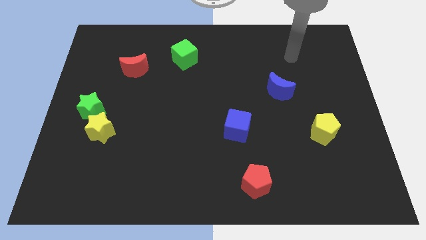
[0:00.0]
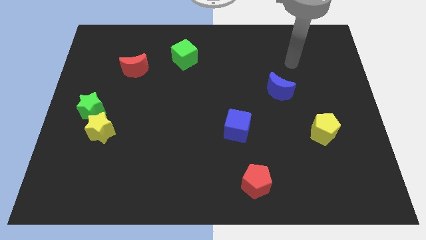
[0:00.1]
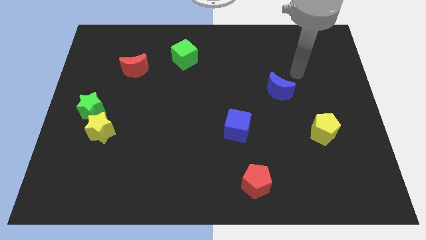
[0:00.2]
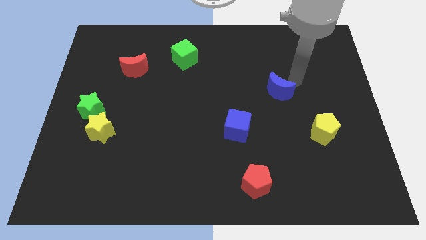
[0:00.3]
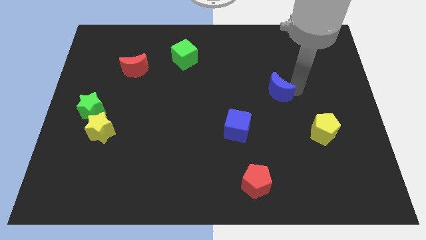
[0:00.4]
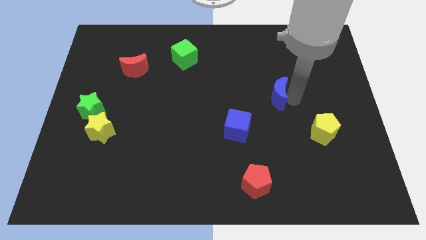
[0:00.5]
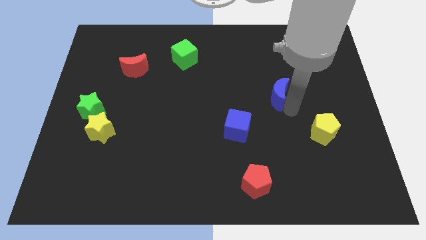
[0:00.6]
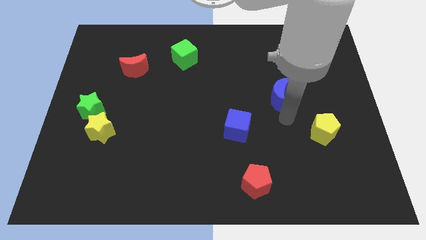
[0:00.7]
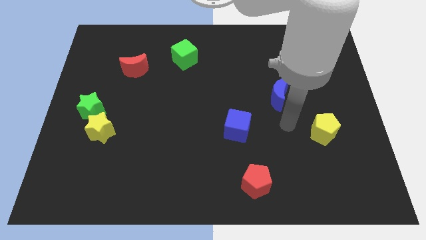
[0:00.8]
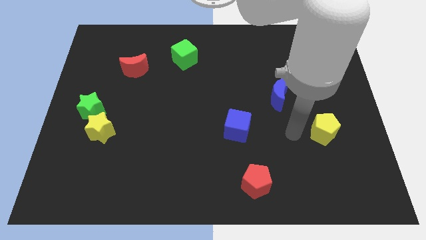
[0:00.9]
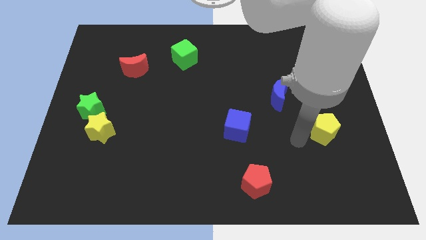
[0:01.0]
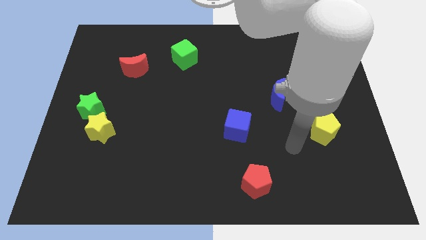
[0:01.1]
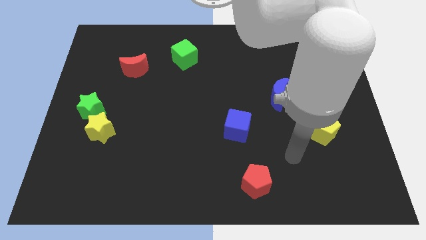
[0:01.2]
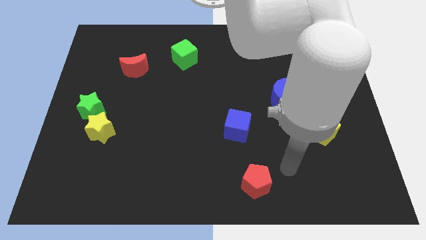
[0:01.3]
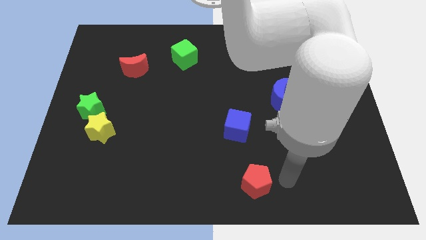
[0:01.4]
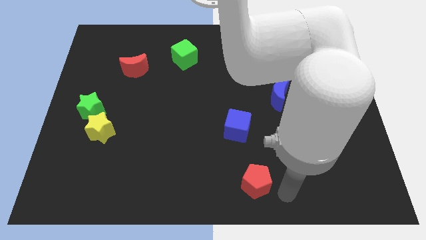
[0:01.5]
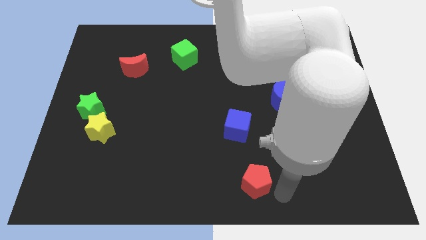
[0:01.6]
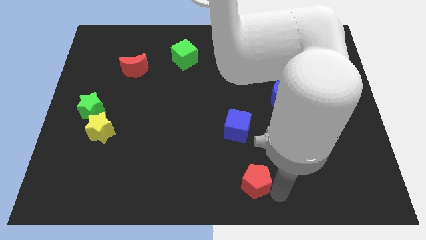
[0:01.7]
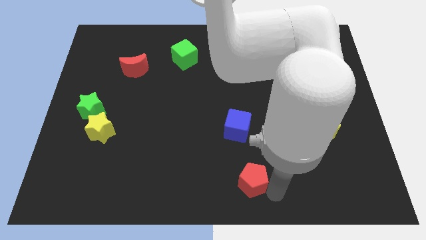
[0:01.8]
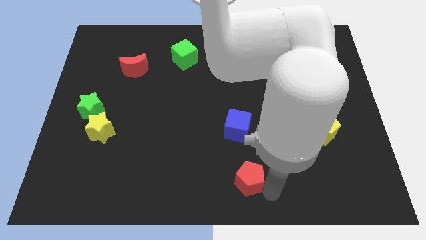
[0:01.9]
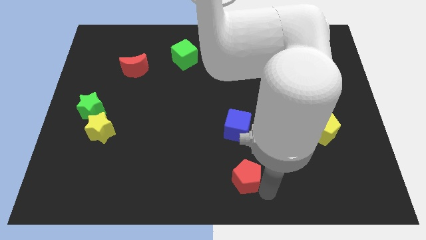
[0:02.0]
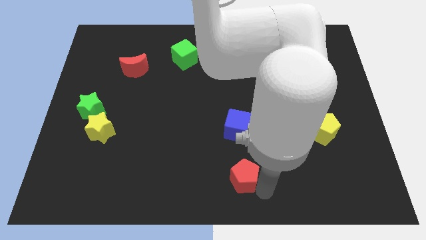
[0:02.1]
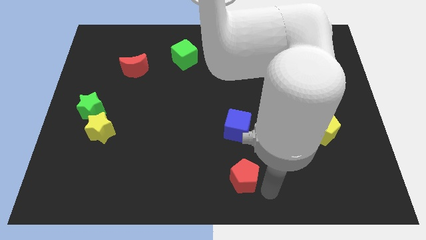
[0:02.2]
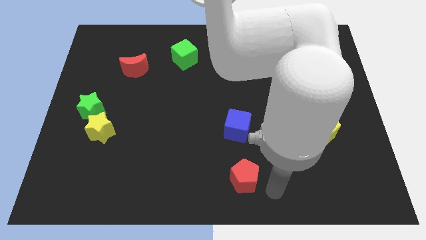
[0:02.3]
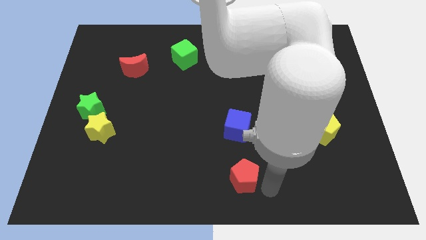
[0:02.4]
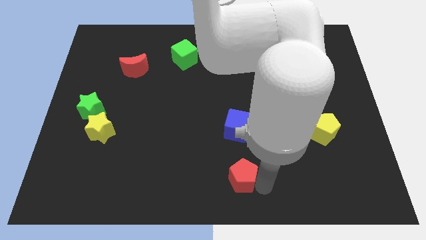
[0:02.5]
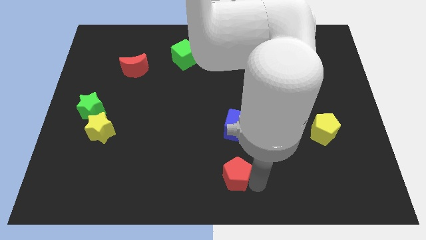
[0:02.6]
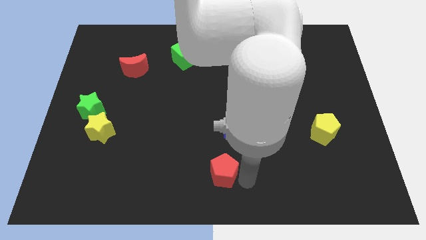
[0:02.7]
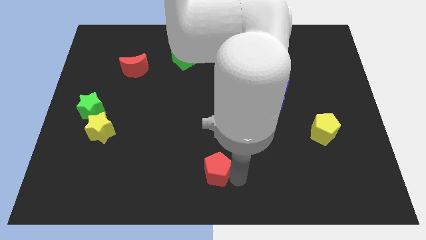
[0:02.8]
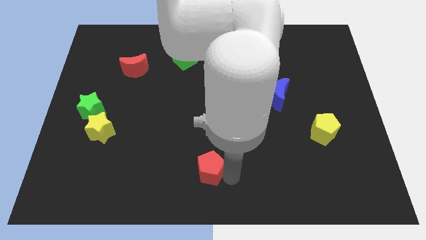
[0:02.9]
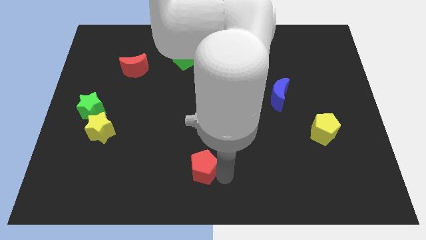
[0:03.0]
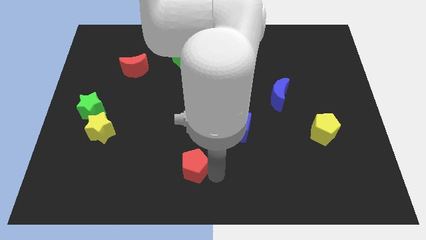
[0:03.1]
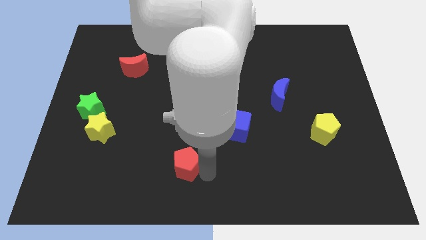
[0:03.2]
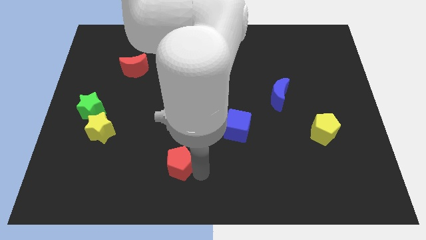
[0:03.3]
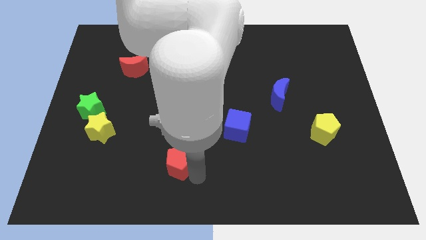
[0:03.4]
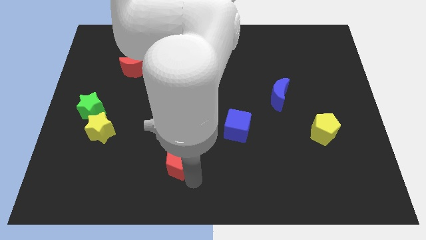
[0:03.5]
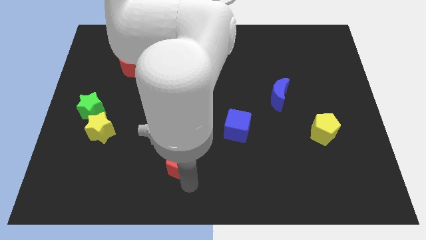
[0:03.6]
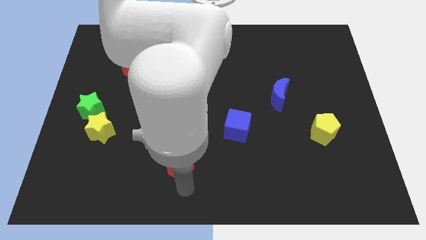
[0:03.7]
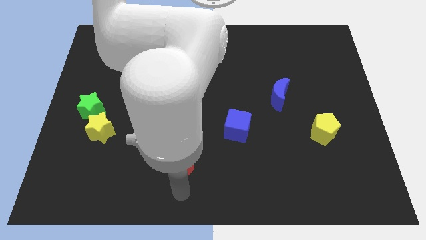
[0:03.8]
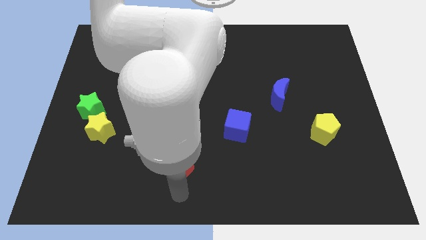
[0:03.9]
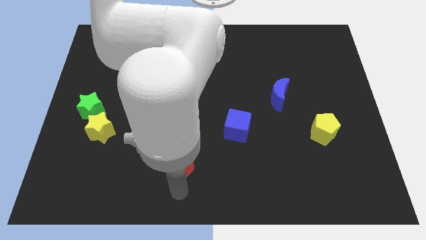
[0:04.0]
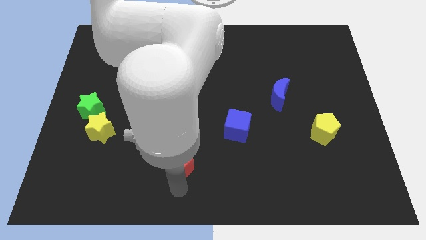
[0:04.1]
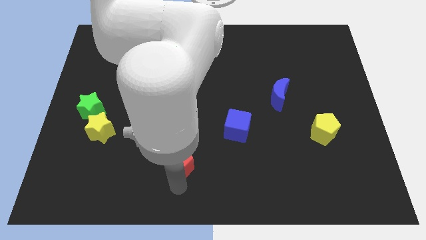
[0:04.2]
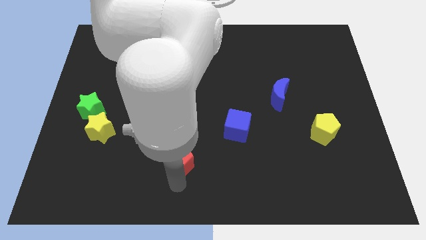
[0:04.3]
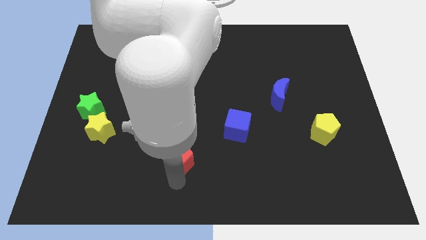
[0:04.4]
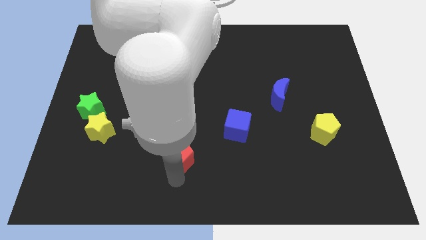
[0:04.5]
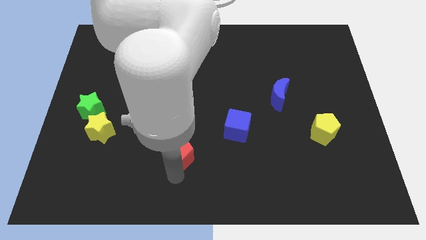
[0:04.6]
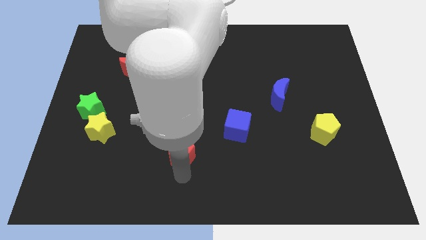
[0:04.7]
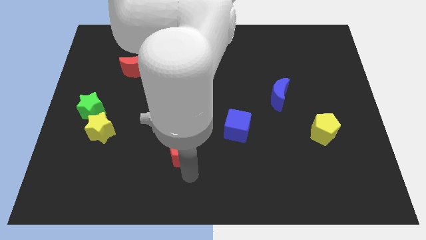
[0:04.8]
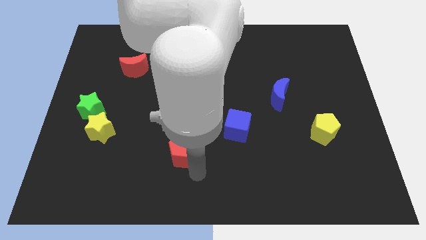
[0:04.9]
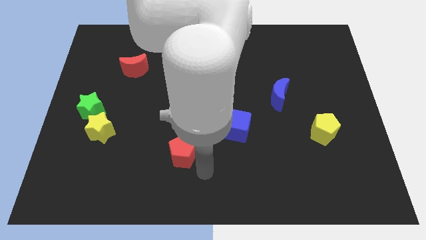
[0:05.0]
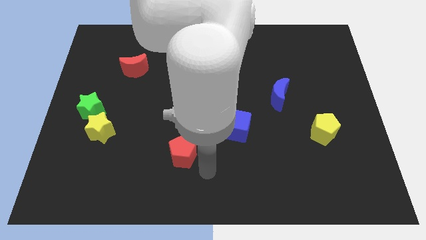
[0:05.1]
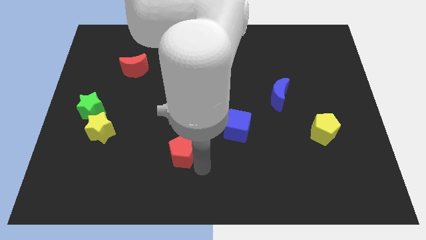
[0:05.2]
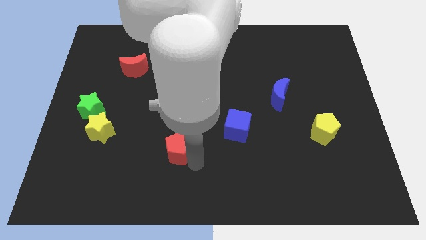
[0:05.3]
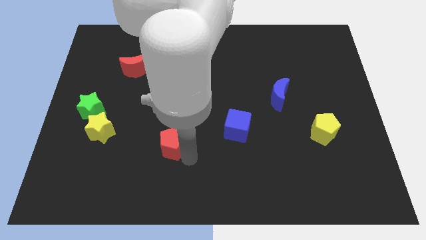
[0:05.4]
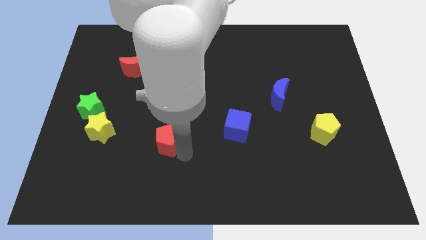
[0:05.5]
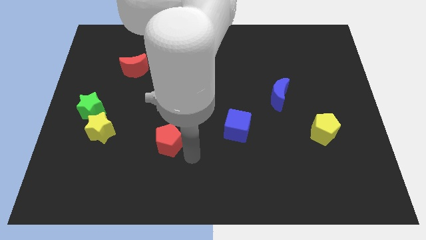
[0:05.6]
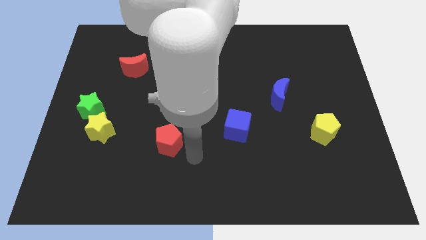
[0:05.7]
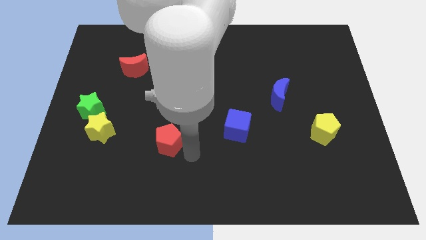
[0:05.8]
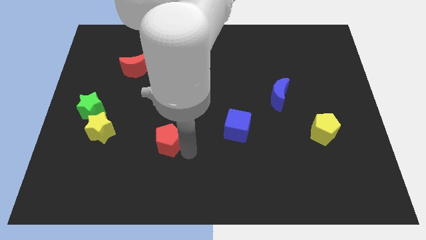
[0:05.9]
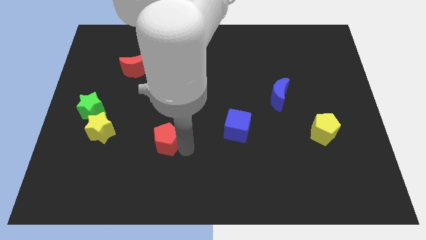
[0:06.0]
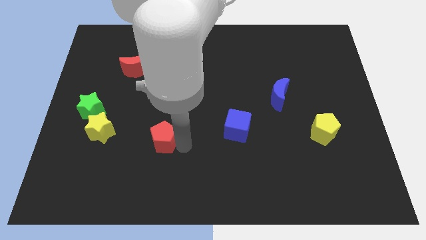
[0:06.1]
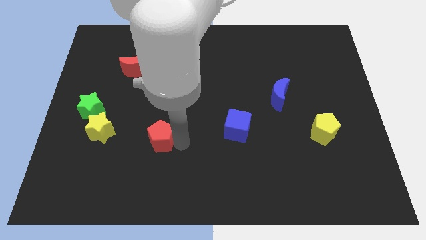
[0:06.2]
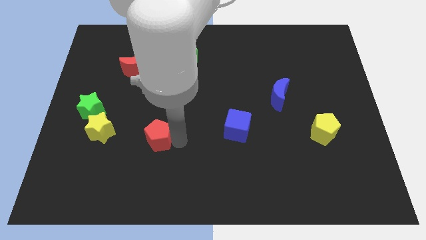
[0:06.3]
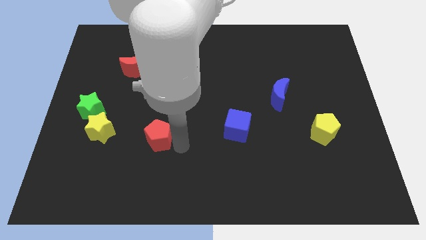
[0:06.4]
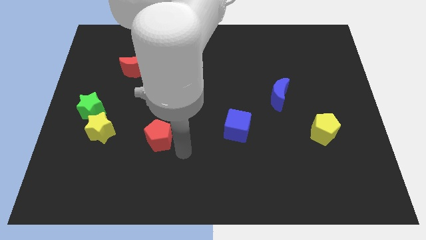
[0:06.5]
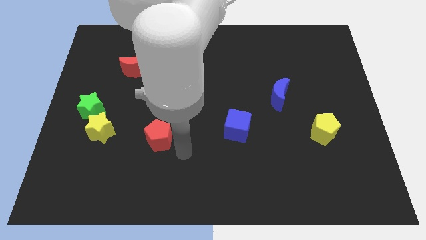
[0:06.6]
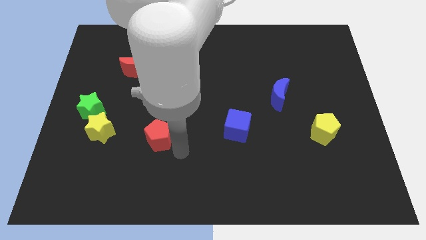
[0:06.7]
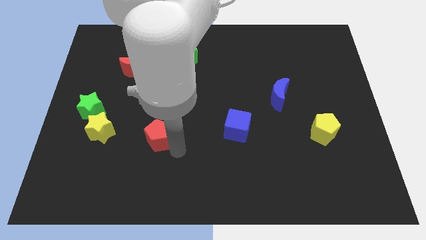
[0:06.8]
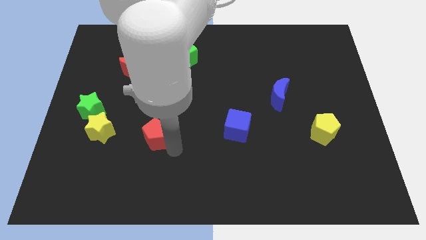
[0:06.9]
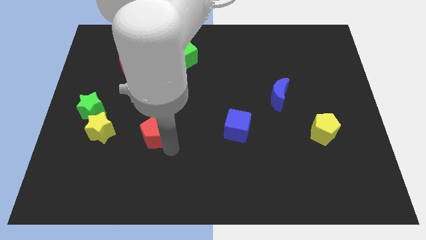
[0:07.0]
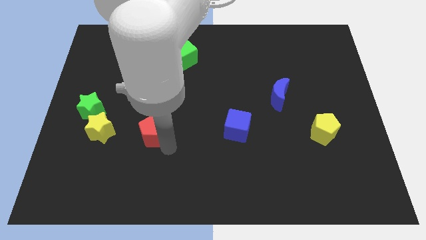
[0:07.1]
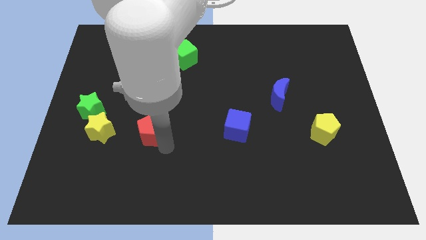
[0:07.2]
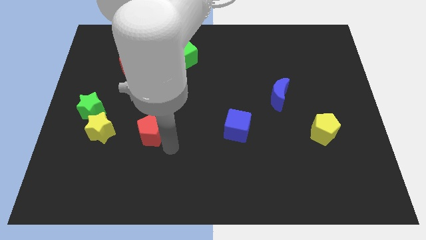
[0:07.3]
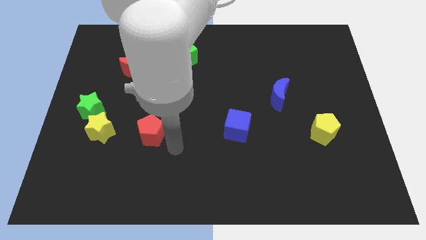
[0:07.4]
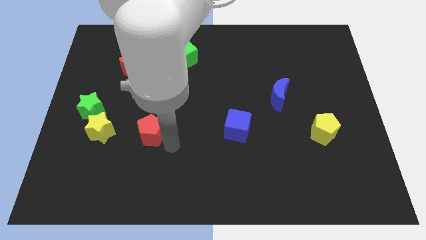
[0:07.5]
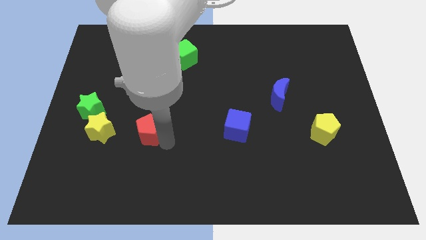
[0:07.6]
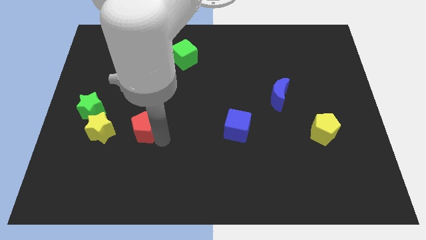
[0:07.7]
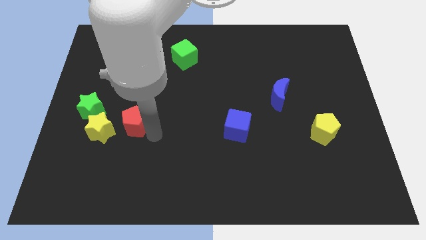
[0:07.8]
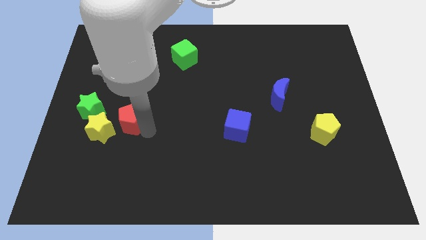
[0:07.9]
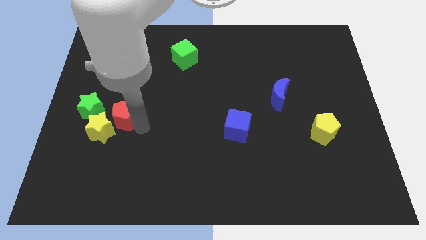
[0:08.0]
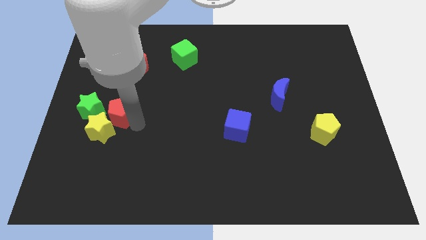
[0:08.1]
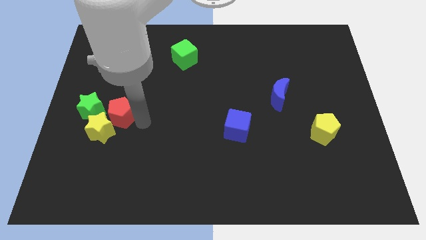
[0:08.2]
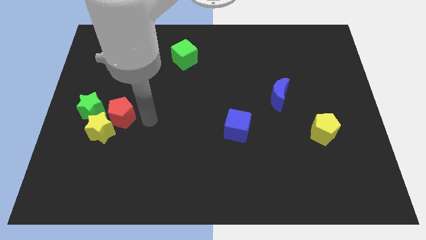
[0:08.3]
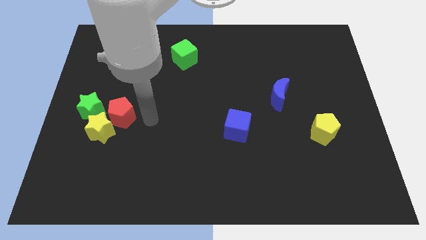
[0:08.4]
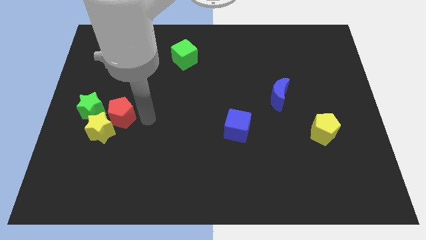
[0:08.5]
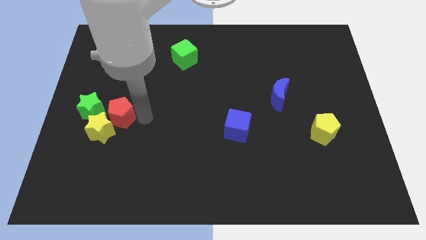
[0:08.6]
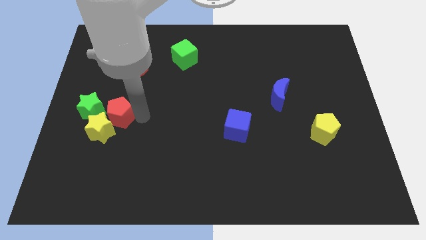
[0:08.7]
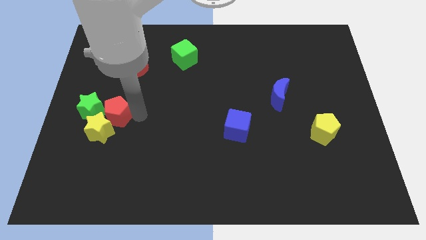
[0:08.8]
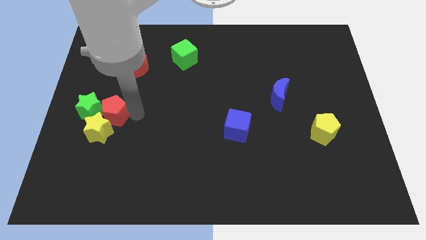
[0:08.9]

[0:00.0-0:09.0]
move the red pentagon close to the green star
